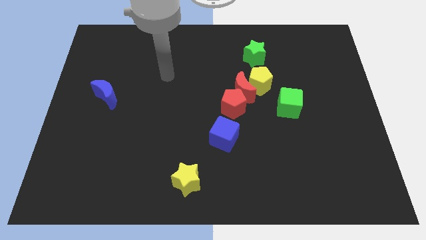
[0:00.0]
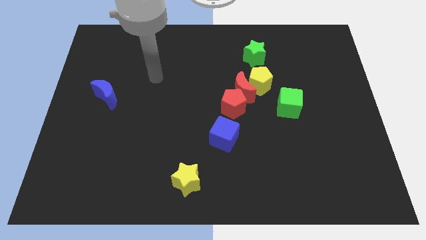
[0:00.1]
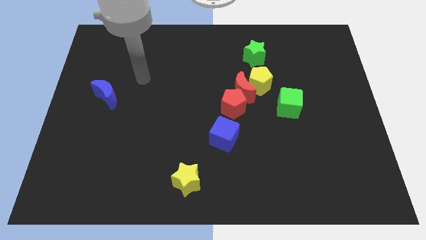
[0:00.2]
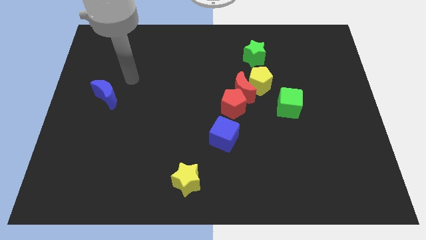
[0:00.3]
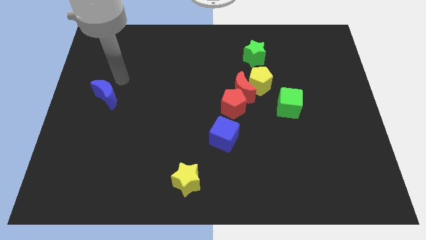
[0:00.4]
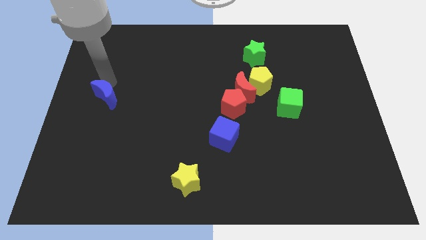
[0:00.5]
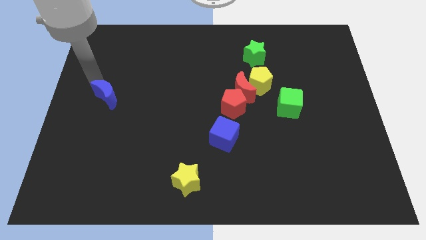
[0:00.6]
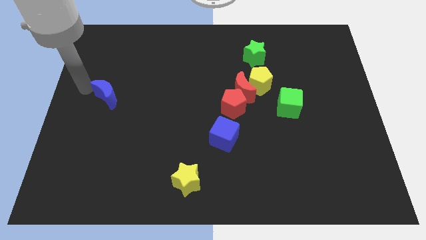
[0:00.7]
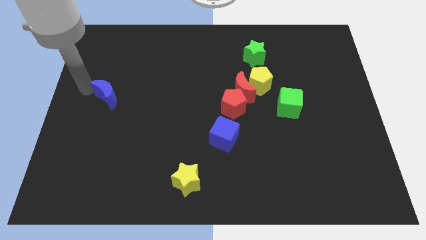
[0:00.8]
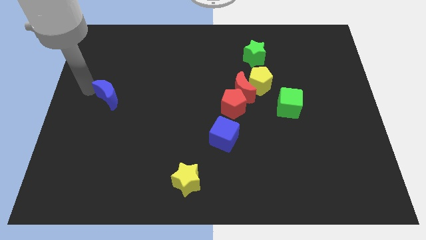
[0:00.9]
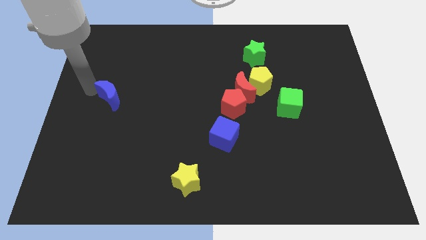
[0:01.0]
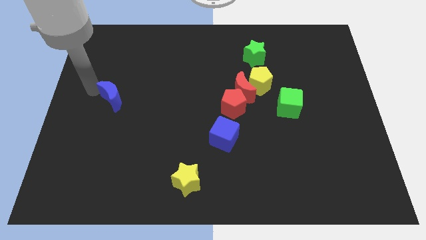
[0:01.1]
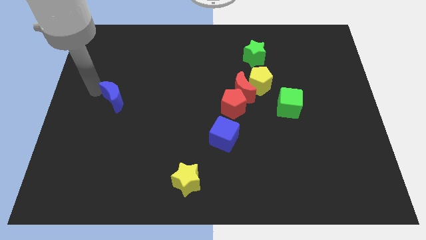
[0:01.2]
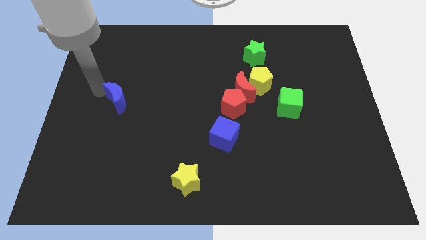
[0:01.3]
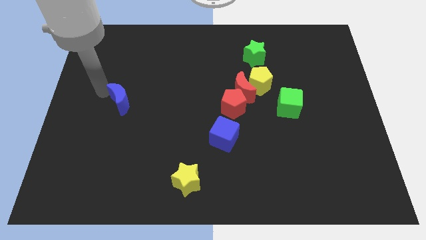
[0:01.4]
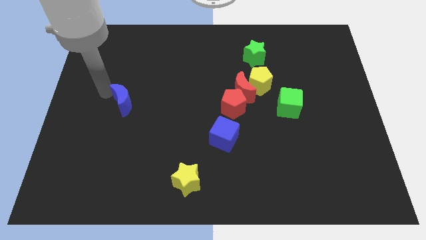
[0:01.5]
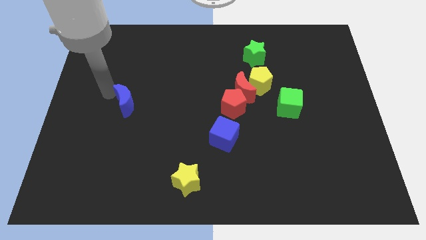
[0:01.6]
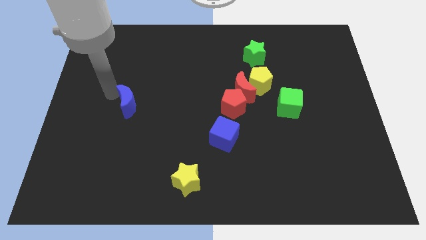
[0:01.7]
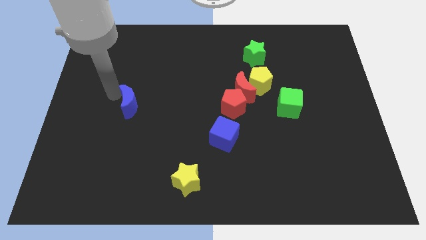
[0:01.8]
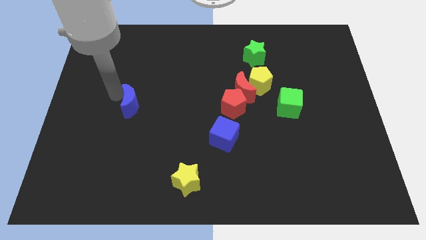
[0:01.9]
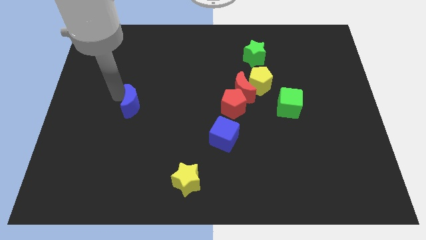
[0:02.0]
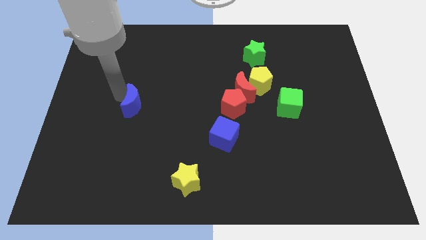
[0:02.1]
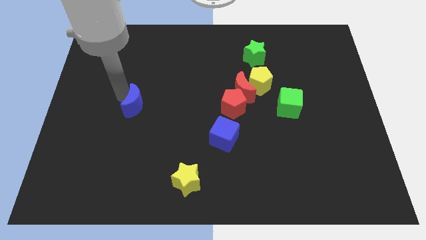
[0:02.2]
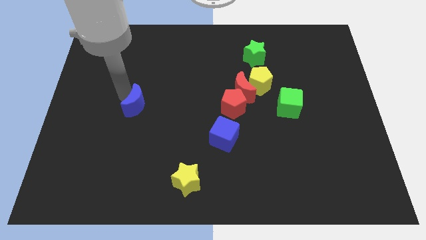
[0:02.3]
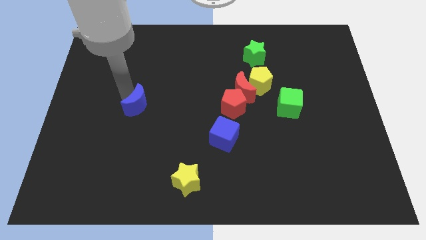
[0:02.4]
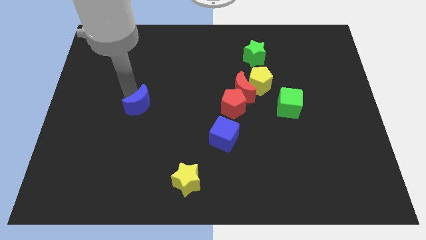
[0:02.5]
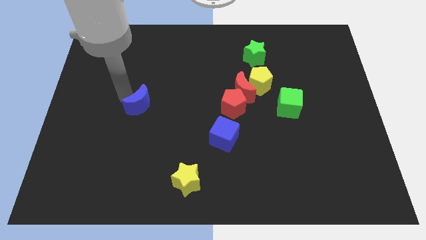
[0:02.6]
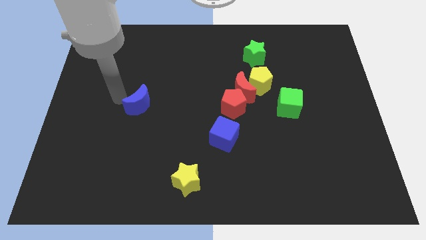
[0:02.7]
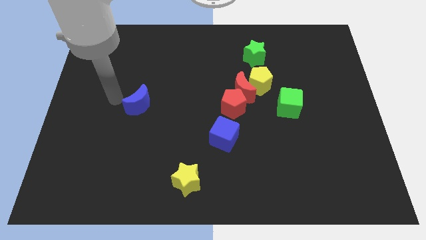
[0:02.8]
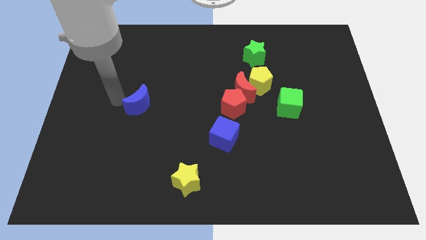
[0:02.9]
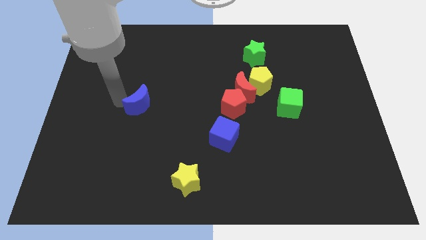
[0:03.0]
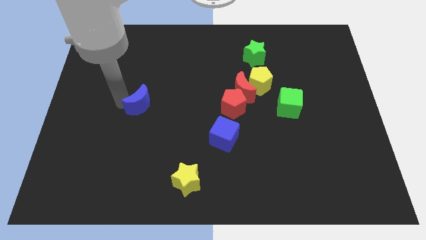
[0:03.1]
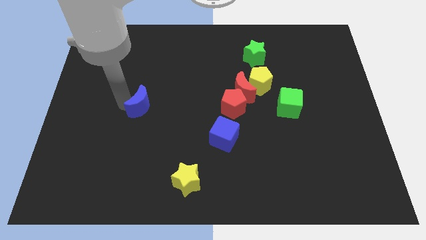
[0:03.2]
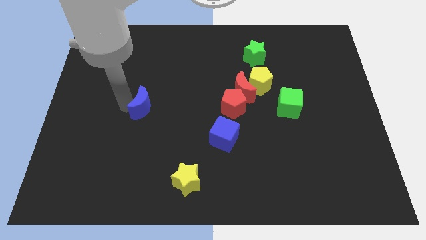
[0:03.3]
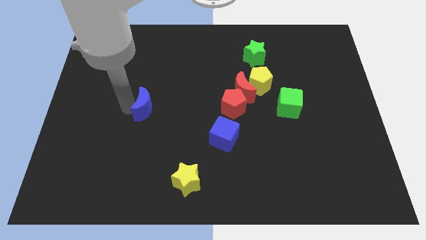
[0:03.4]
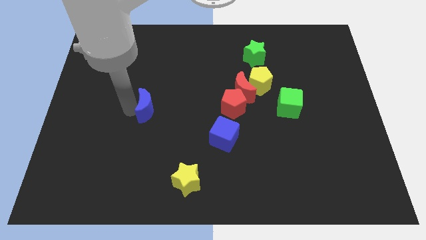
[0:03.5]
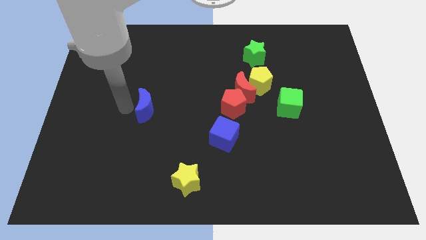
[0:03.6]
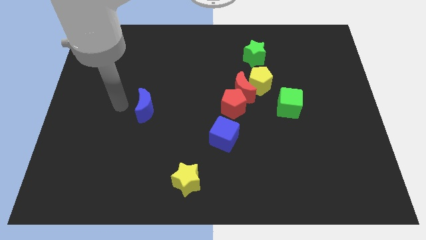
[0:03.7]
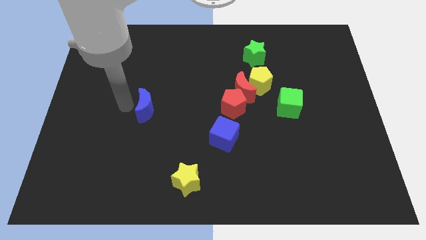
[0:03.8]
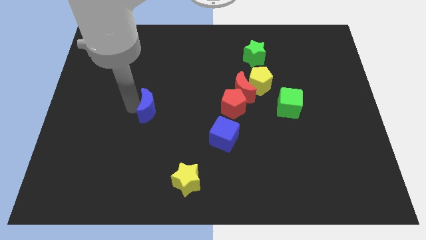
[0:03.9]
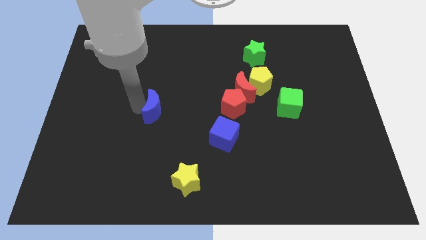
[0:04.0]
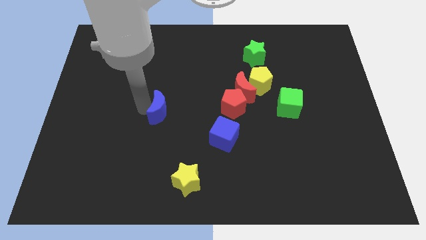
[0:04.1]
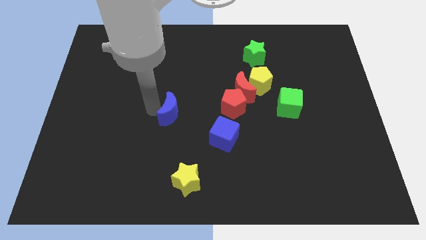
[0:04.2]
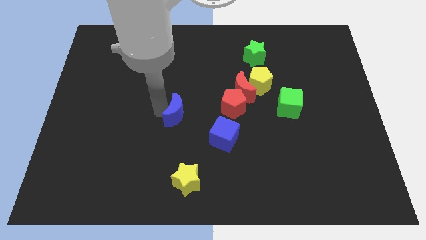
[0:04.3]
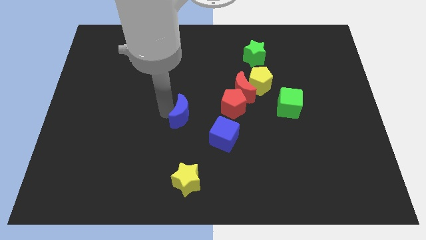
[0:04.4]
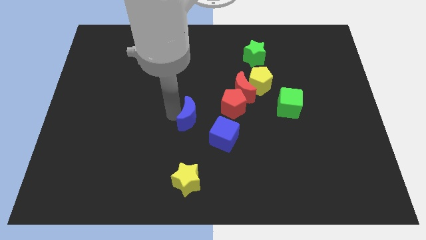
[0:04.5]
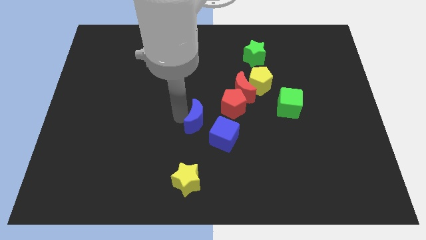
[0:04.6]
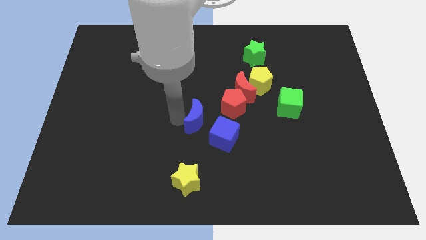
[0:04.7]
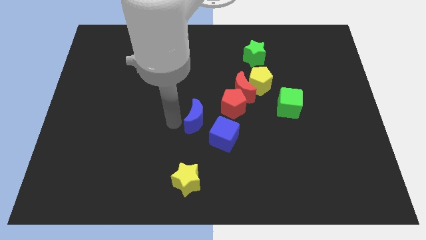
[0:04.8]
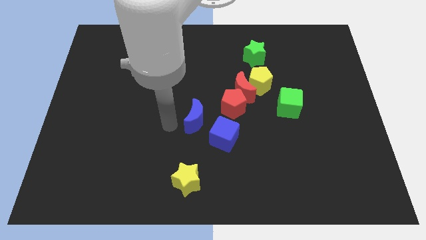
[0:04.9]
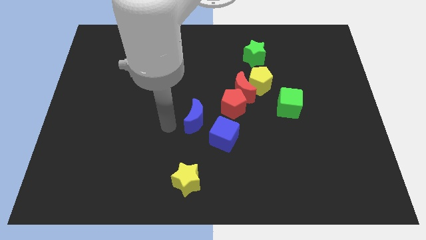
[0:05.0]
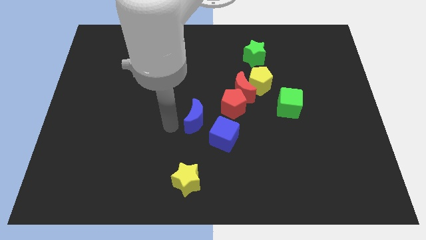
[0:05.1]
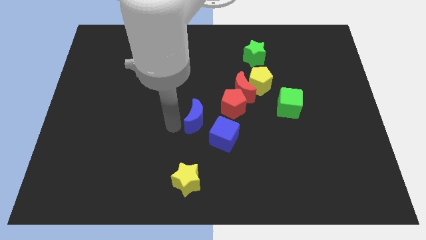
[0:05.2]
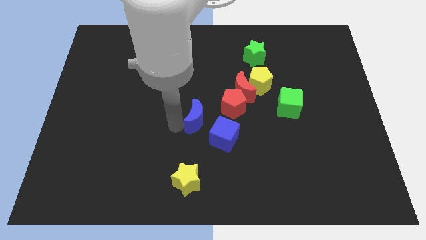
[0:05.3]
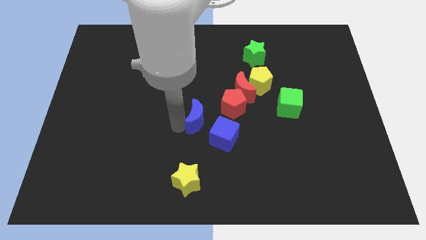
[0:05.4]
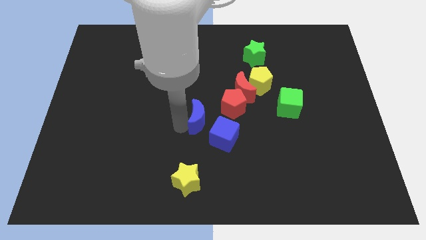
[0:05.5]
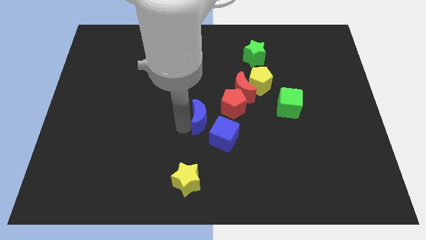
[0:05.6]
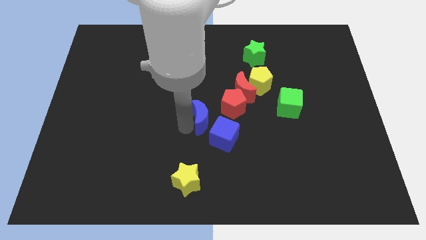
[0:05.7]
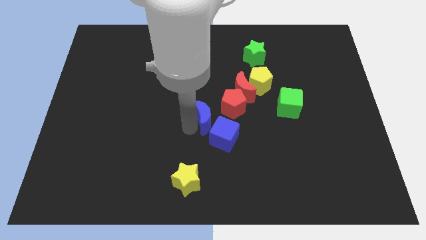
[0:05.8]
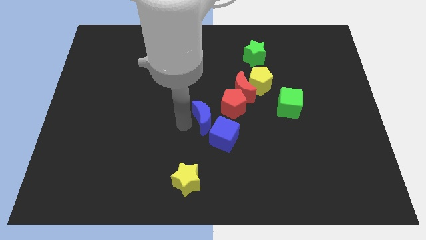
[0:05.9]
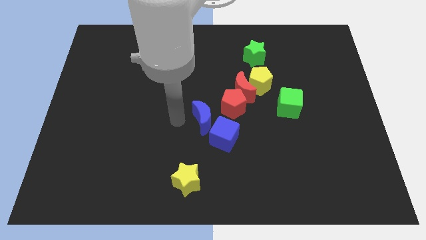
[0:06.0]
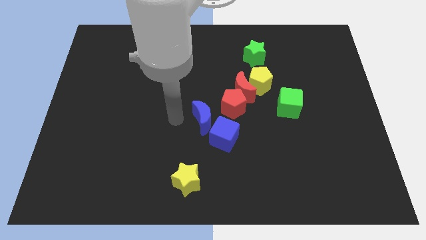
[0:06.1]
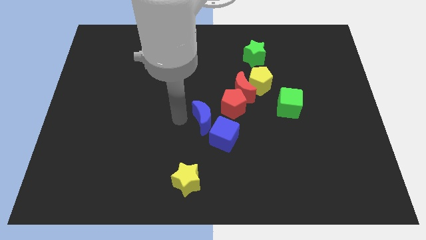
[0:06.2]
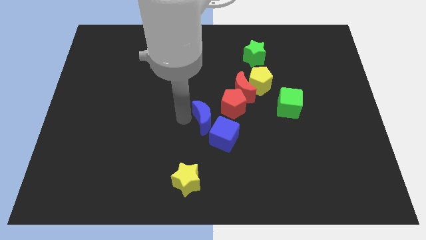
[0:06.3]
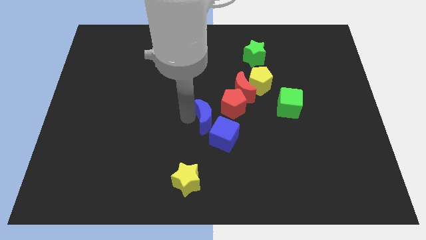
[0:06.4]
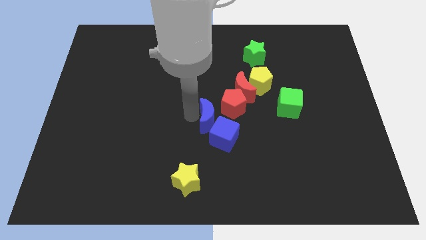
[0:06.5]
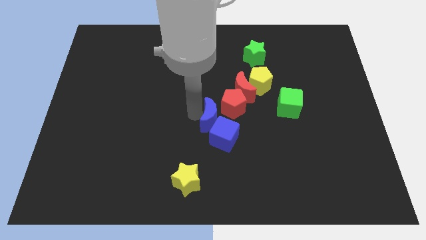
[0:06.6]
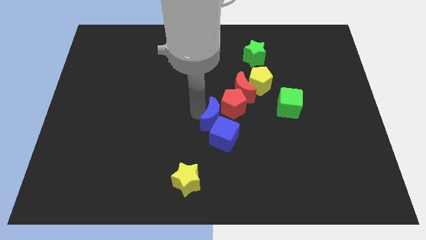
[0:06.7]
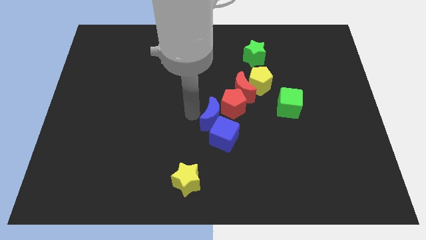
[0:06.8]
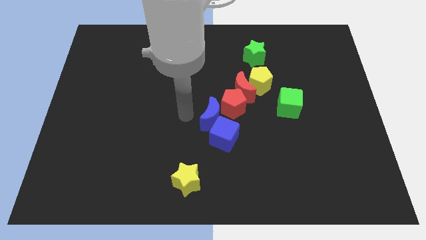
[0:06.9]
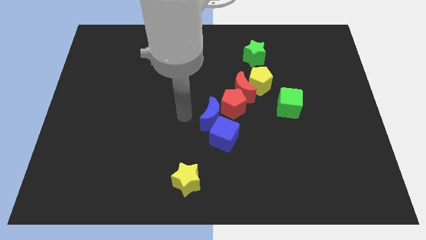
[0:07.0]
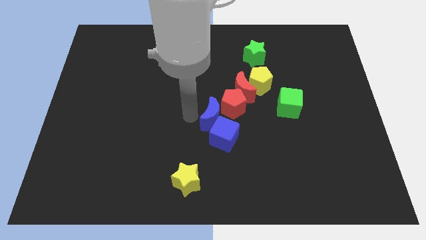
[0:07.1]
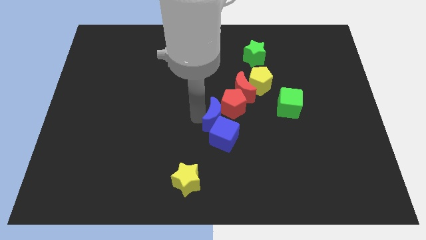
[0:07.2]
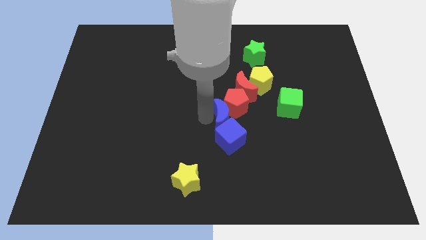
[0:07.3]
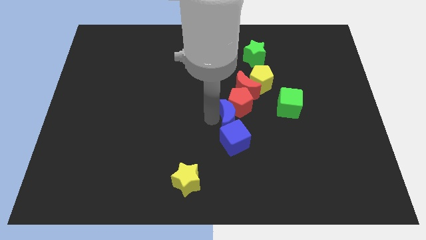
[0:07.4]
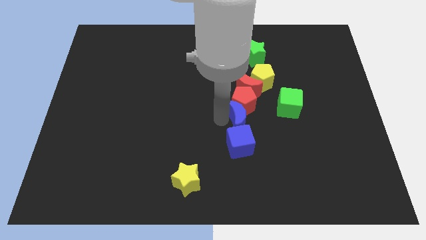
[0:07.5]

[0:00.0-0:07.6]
move the blue moon diagonally down and to the right of the red pentagon
